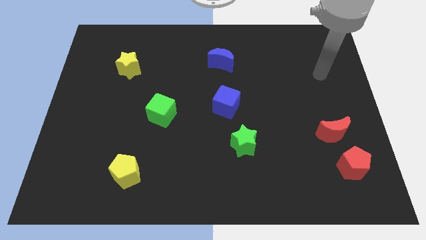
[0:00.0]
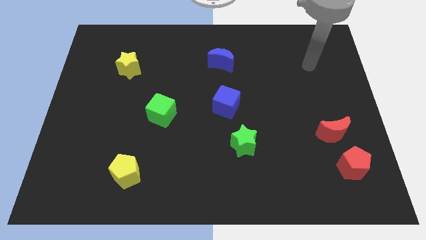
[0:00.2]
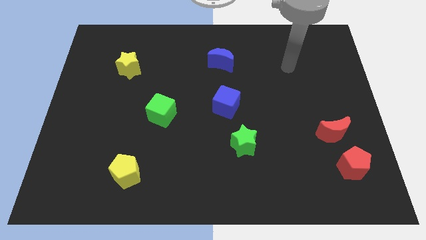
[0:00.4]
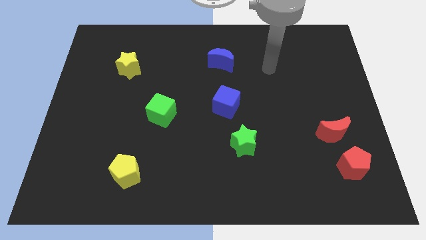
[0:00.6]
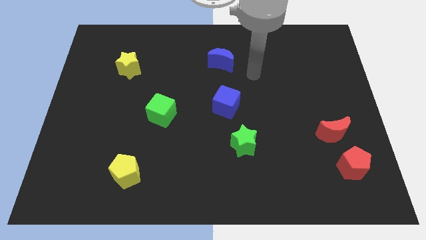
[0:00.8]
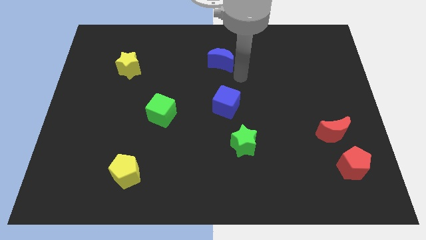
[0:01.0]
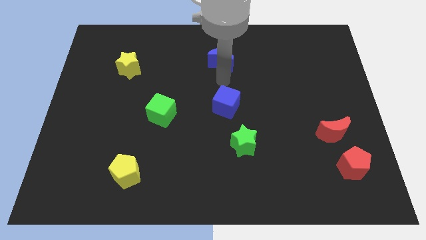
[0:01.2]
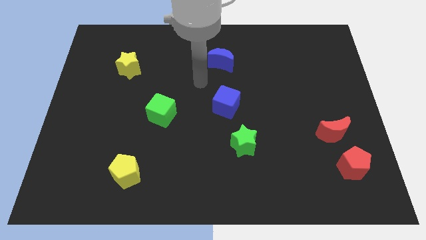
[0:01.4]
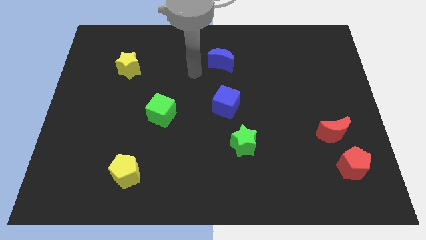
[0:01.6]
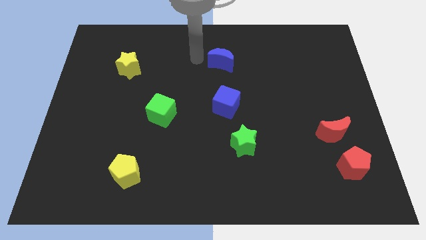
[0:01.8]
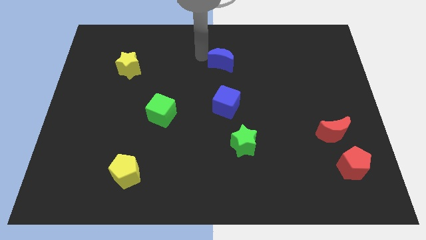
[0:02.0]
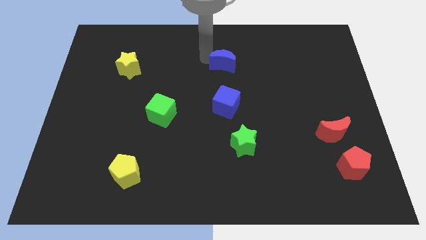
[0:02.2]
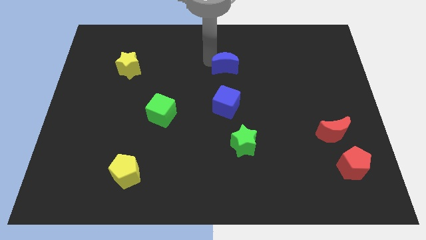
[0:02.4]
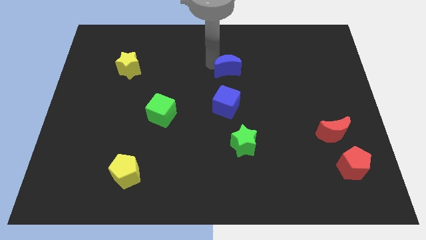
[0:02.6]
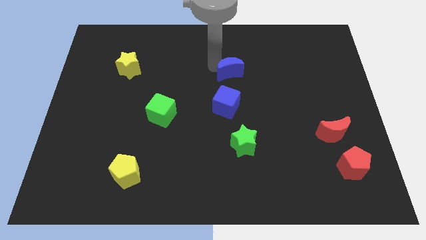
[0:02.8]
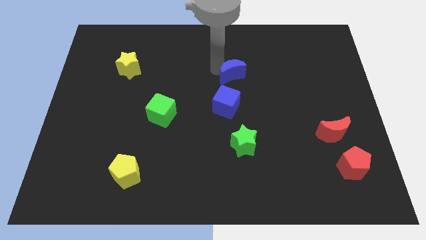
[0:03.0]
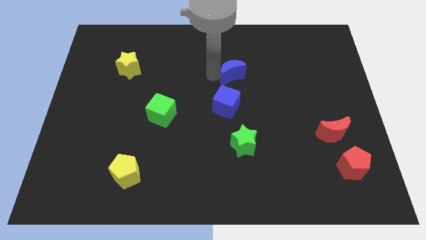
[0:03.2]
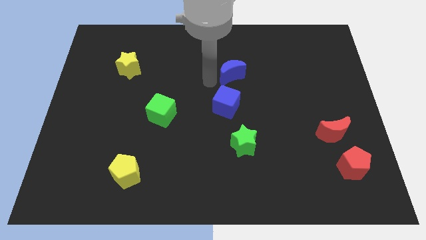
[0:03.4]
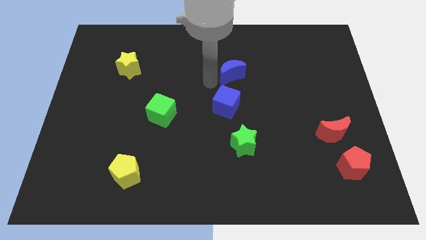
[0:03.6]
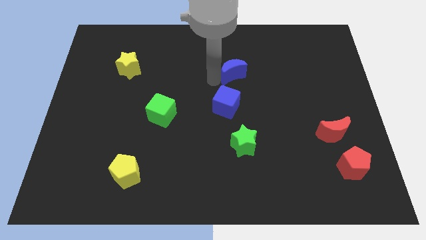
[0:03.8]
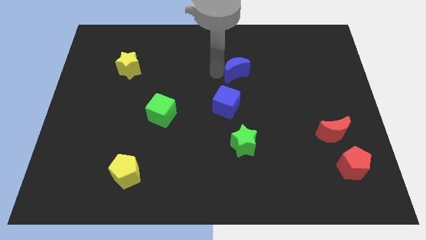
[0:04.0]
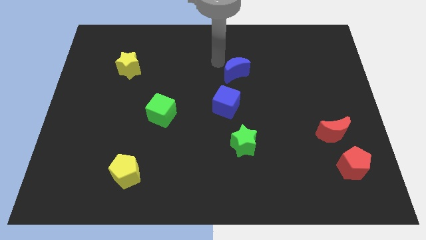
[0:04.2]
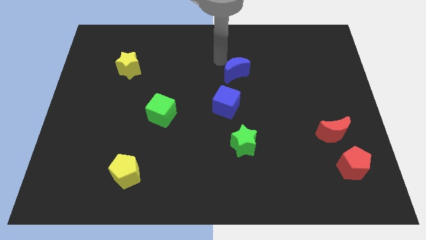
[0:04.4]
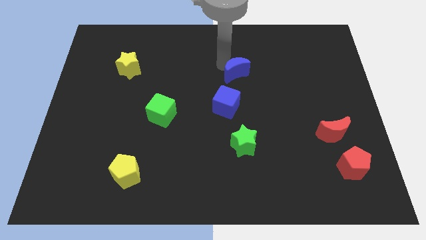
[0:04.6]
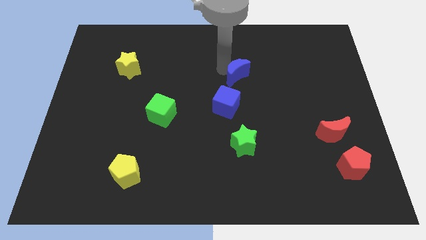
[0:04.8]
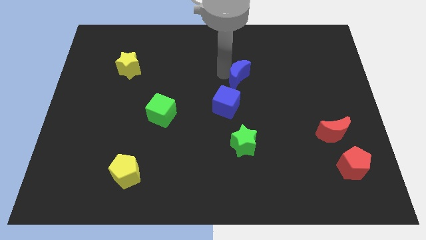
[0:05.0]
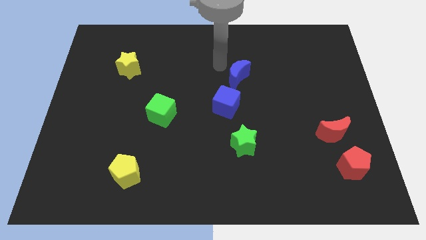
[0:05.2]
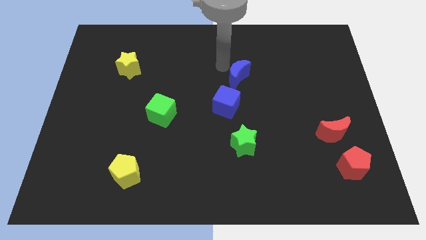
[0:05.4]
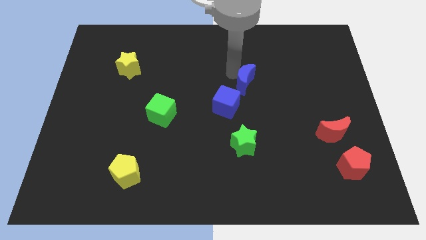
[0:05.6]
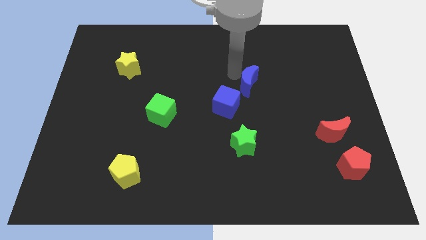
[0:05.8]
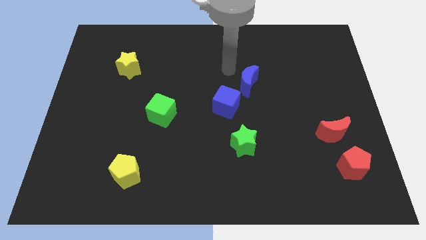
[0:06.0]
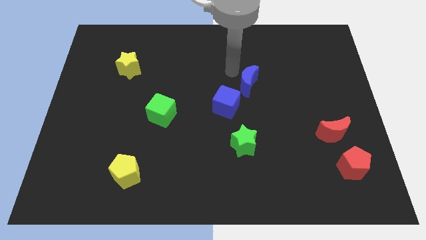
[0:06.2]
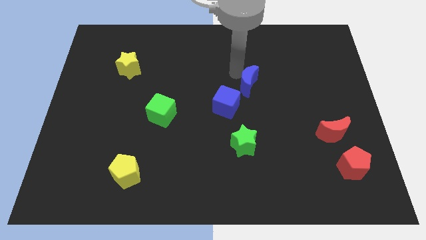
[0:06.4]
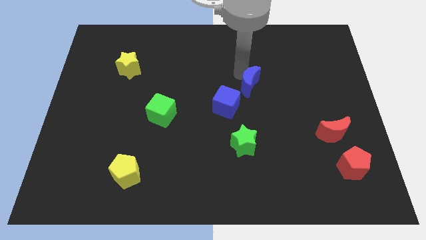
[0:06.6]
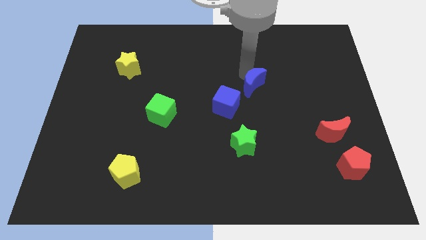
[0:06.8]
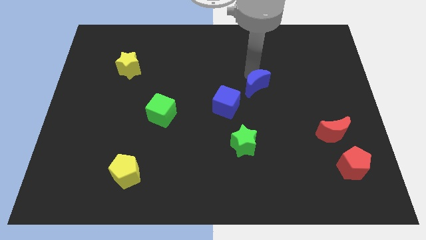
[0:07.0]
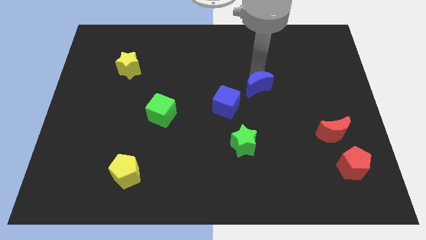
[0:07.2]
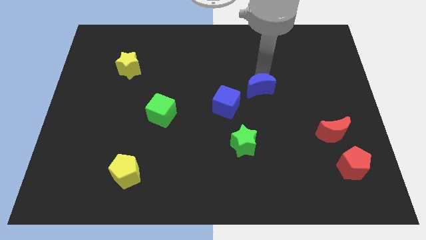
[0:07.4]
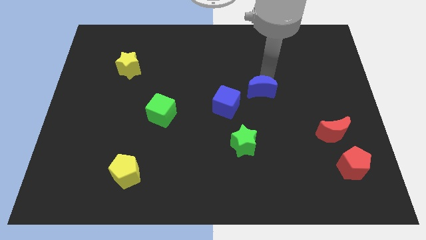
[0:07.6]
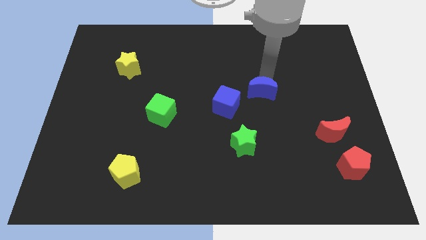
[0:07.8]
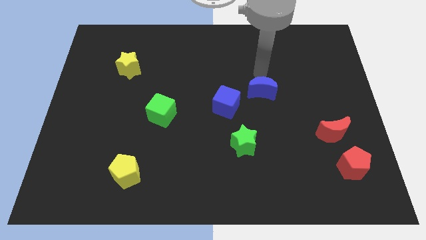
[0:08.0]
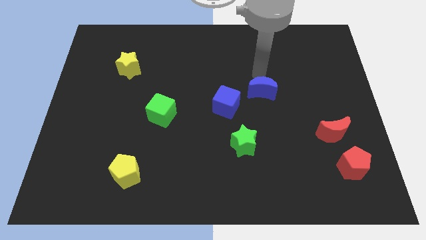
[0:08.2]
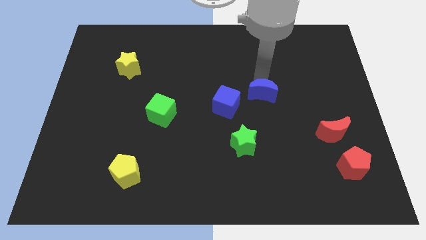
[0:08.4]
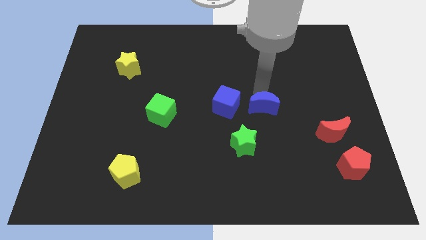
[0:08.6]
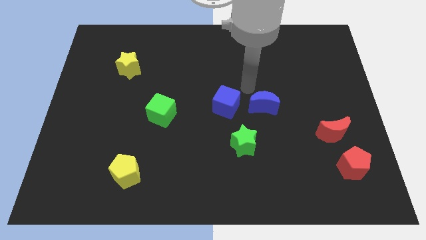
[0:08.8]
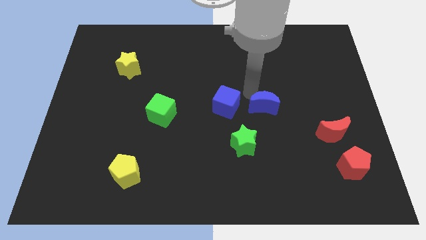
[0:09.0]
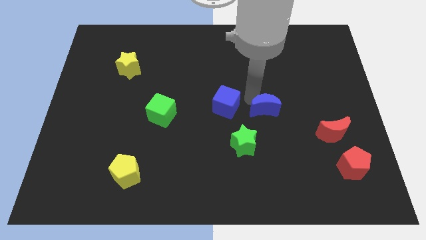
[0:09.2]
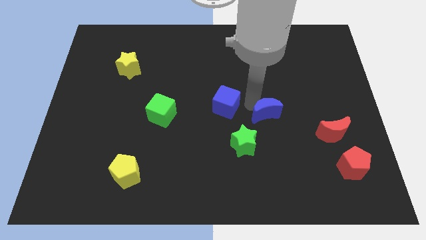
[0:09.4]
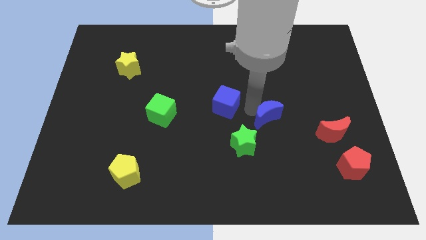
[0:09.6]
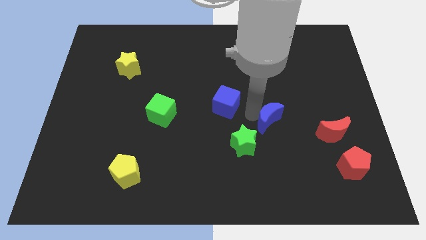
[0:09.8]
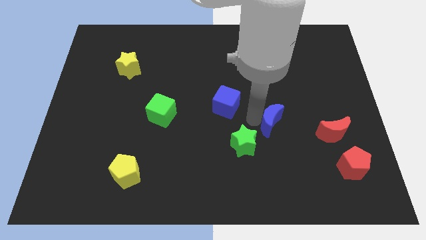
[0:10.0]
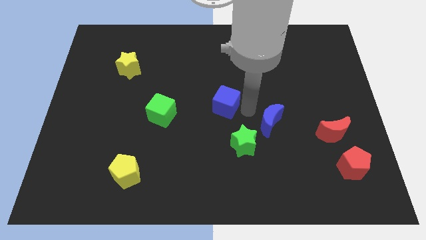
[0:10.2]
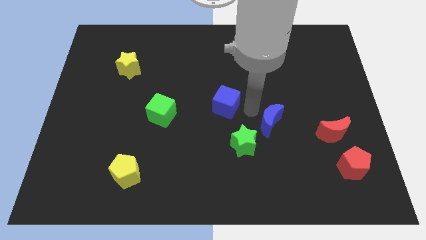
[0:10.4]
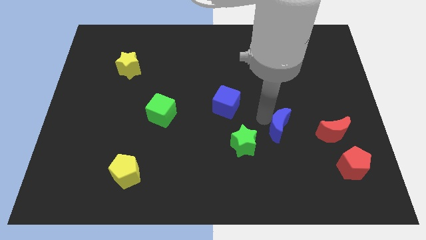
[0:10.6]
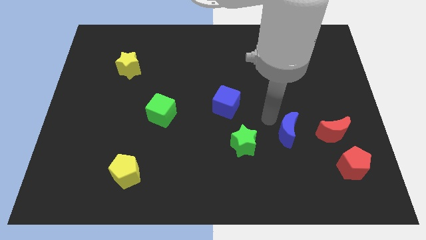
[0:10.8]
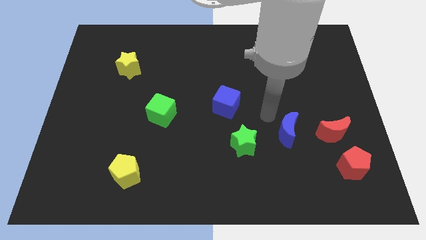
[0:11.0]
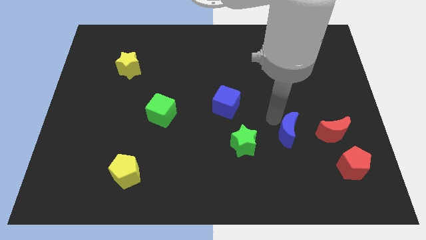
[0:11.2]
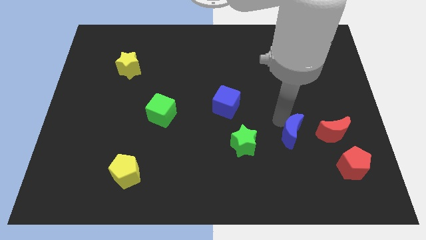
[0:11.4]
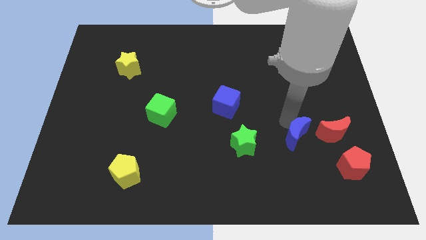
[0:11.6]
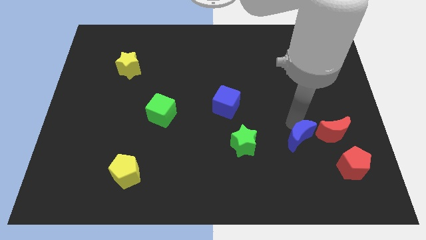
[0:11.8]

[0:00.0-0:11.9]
slide the blue moon to the bottom left of the red moon

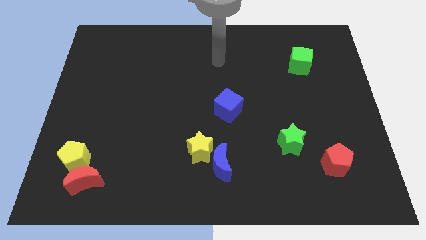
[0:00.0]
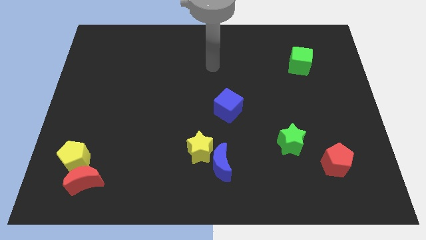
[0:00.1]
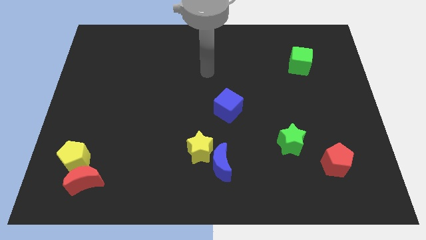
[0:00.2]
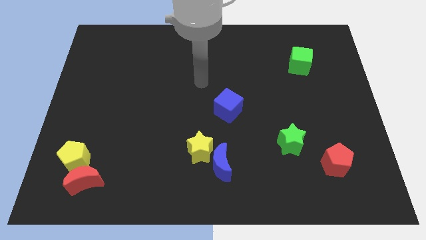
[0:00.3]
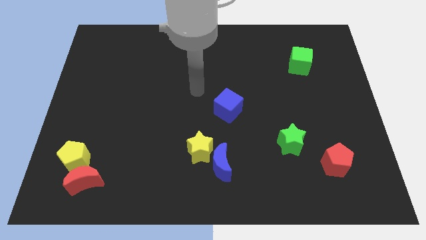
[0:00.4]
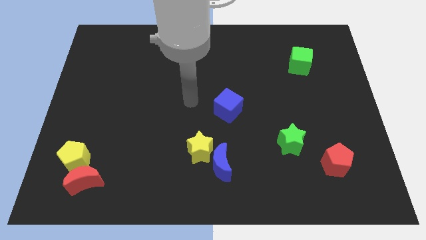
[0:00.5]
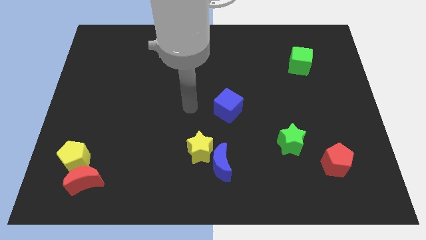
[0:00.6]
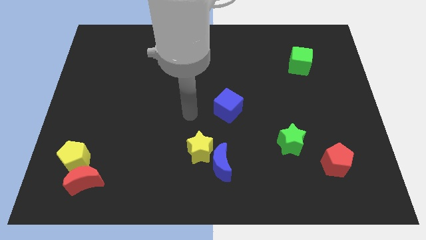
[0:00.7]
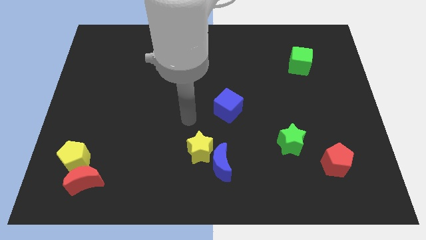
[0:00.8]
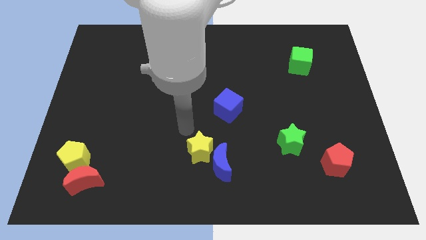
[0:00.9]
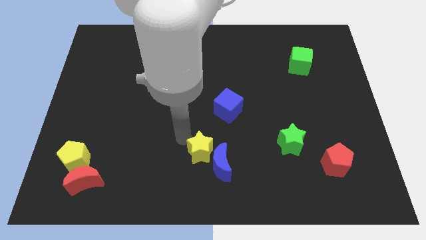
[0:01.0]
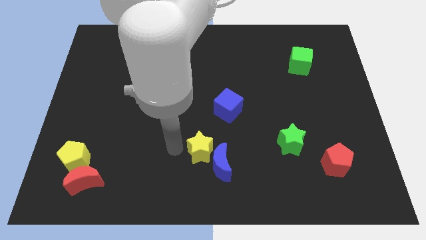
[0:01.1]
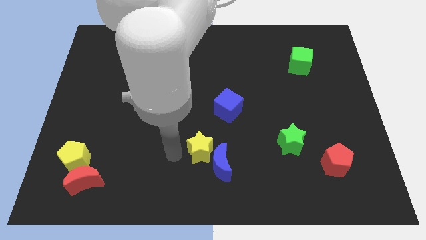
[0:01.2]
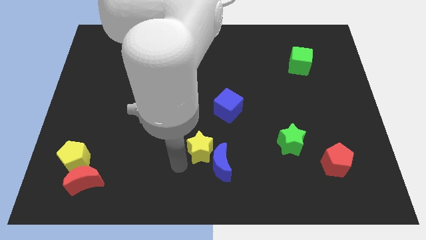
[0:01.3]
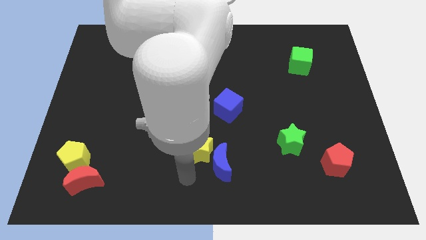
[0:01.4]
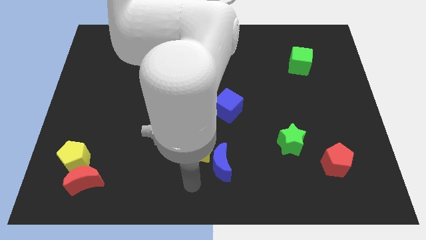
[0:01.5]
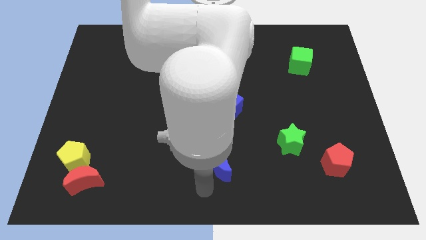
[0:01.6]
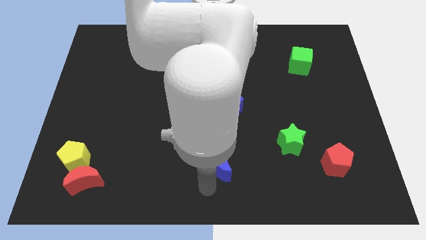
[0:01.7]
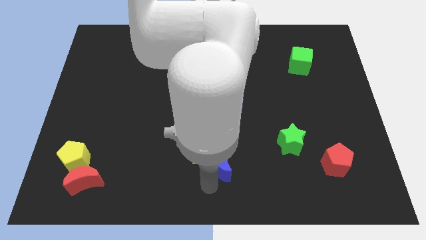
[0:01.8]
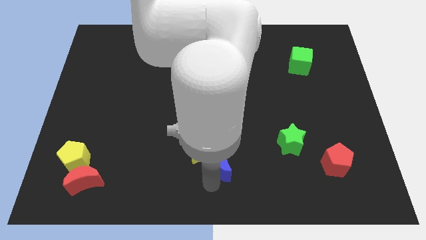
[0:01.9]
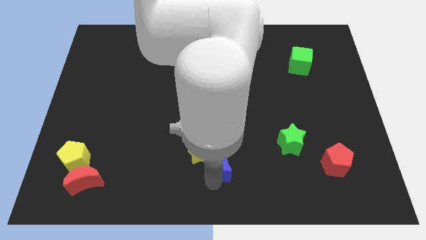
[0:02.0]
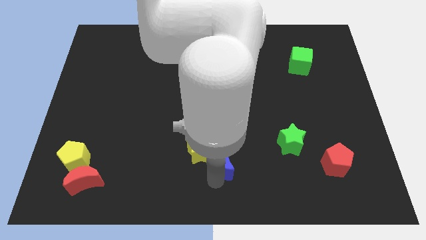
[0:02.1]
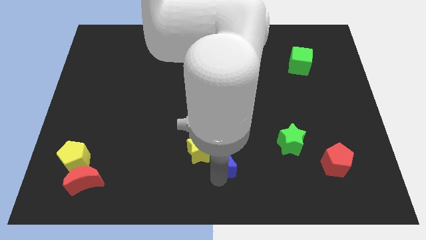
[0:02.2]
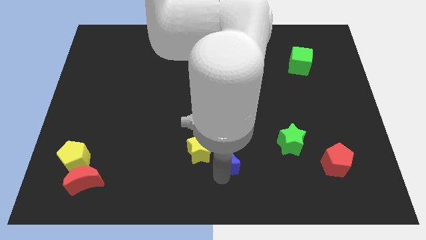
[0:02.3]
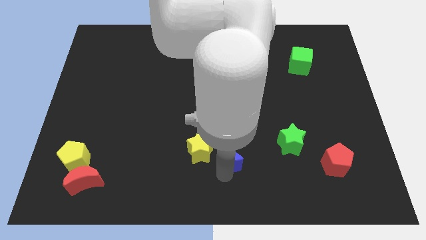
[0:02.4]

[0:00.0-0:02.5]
slide the blue moon left of the green star
